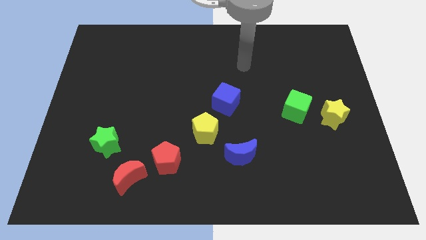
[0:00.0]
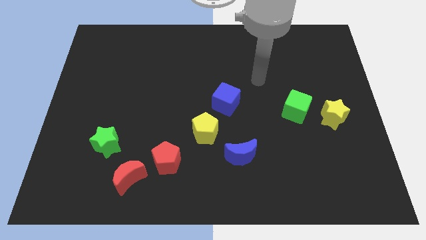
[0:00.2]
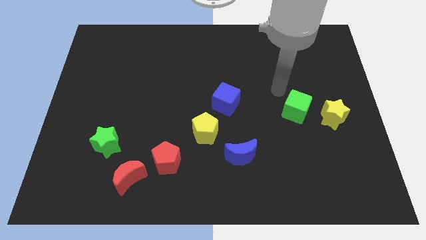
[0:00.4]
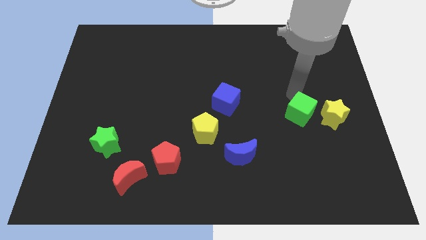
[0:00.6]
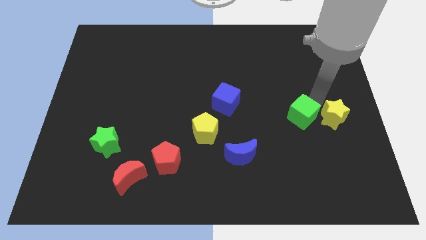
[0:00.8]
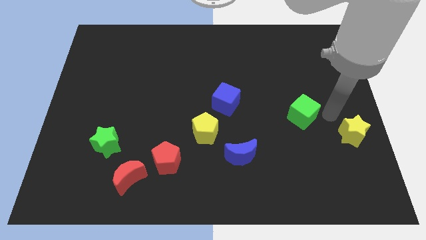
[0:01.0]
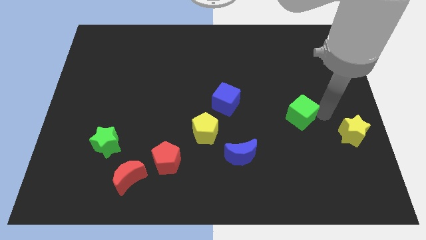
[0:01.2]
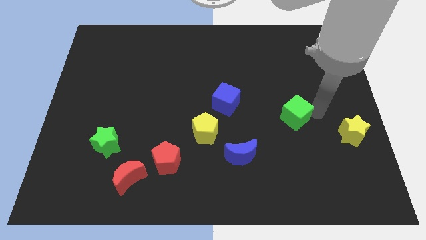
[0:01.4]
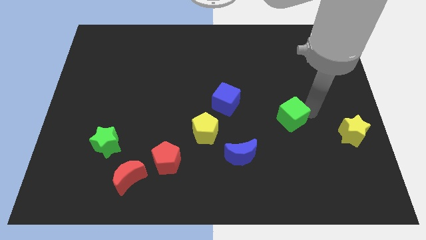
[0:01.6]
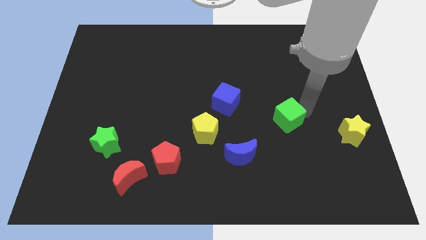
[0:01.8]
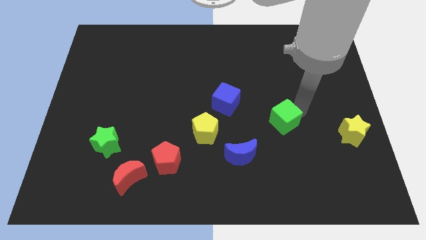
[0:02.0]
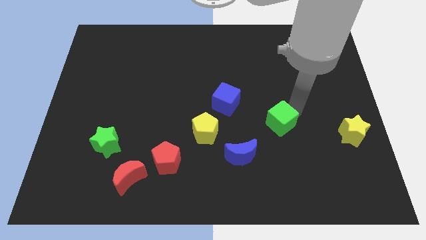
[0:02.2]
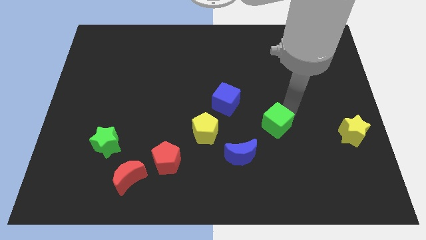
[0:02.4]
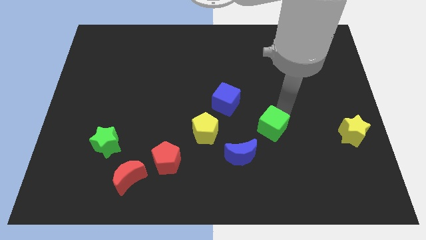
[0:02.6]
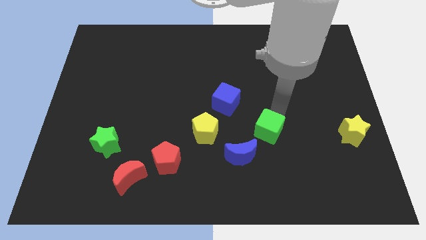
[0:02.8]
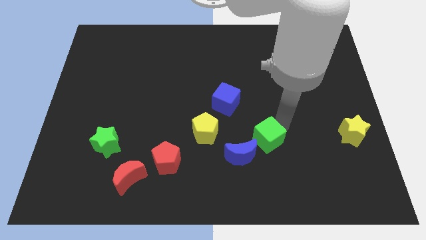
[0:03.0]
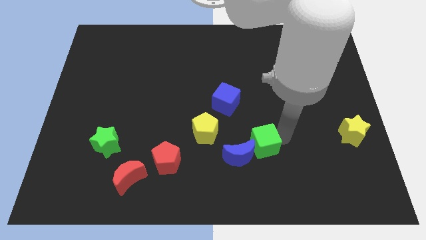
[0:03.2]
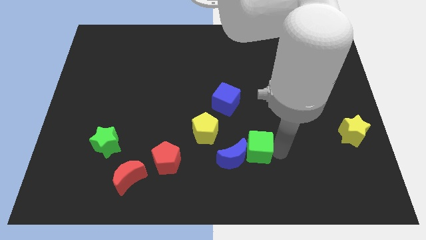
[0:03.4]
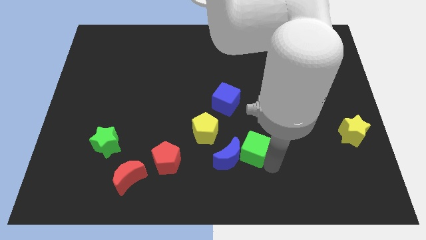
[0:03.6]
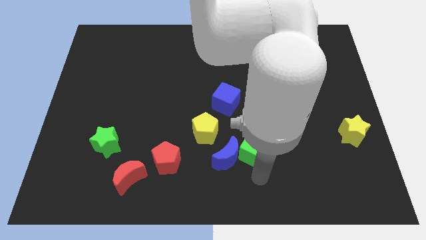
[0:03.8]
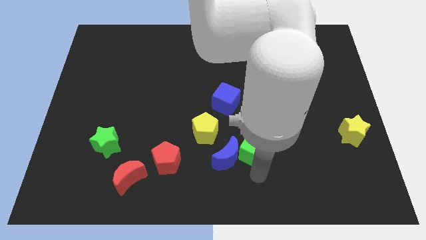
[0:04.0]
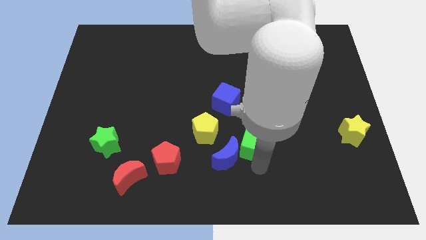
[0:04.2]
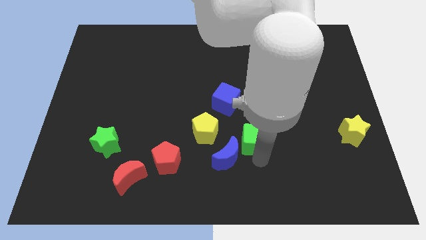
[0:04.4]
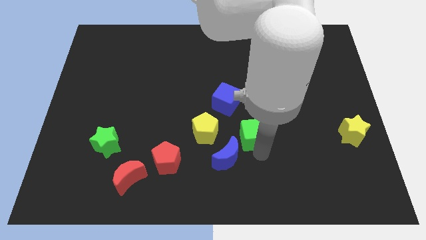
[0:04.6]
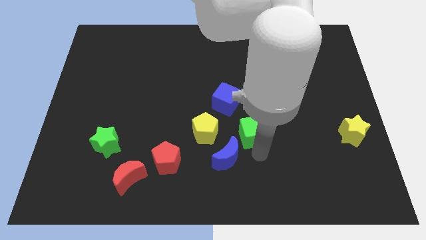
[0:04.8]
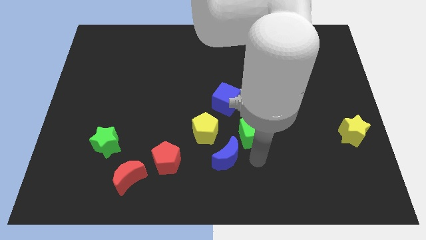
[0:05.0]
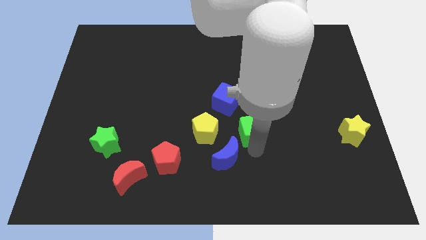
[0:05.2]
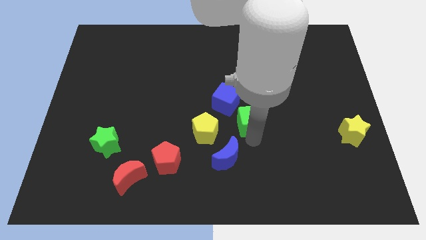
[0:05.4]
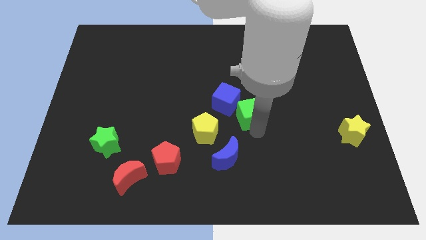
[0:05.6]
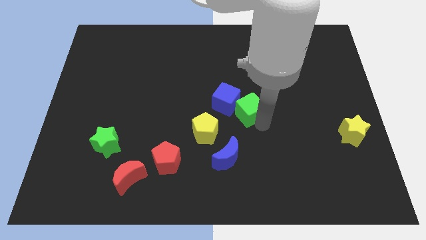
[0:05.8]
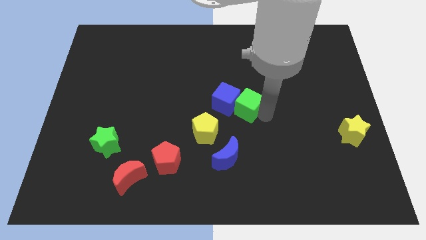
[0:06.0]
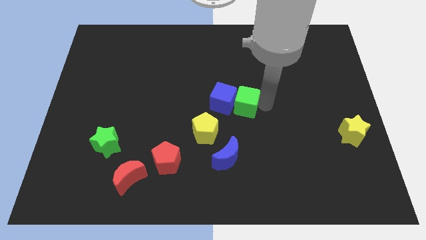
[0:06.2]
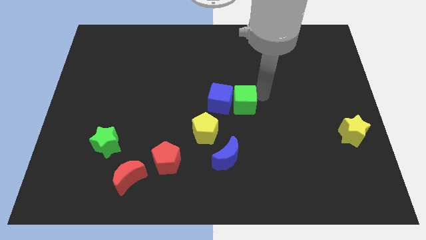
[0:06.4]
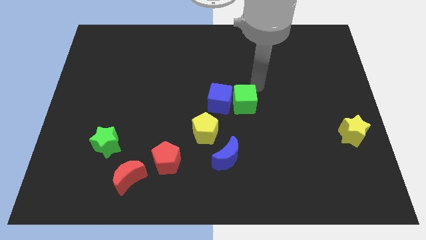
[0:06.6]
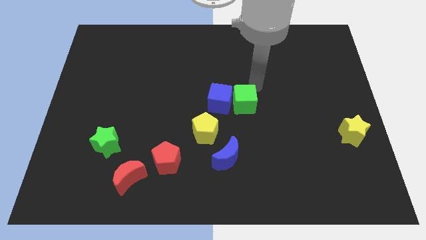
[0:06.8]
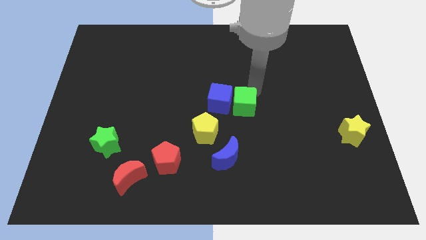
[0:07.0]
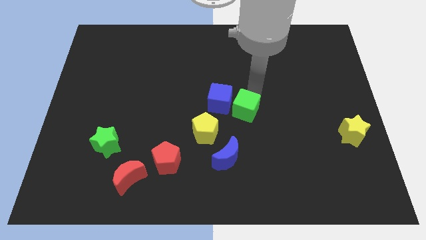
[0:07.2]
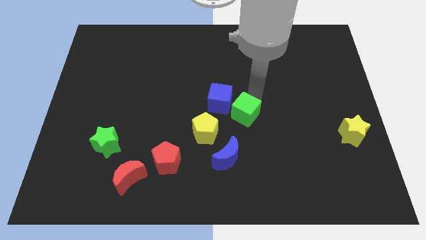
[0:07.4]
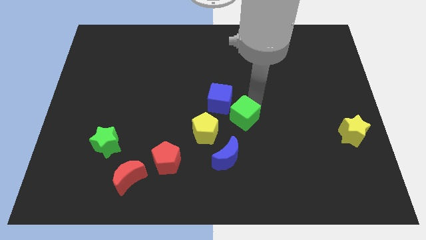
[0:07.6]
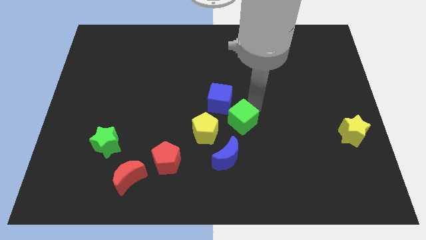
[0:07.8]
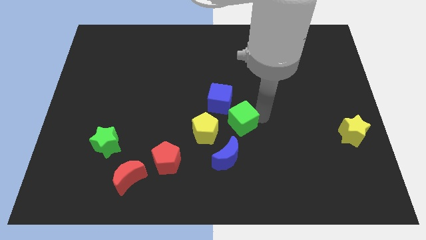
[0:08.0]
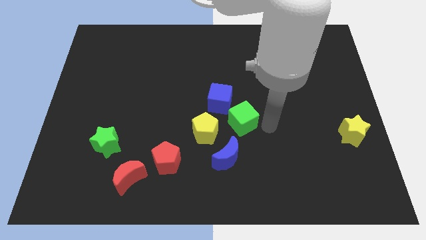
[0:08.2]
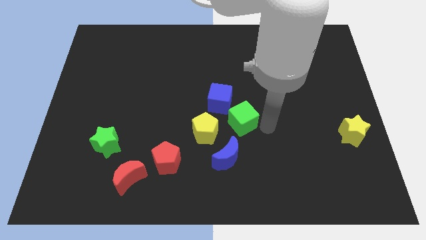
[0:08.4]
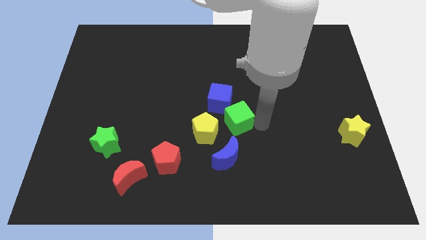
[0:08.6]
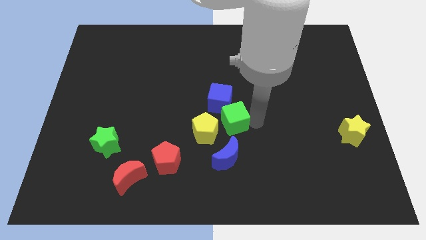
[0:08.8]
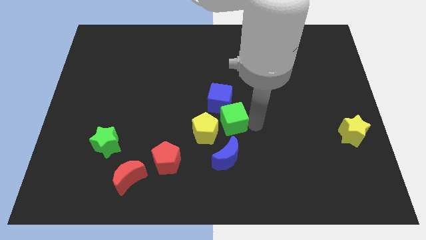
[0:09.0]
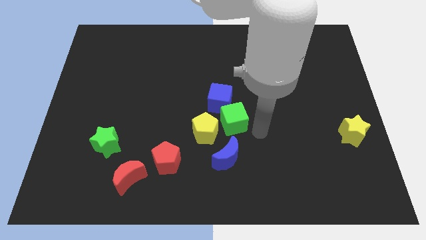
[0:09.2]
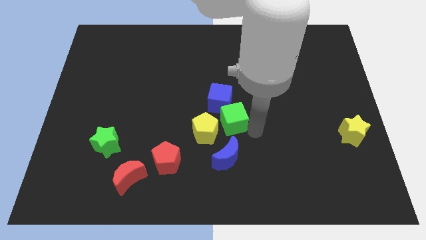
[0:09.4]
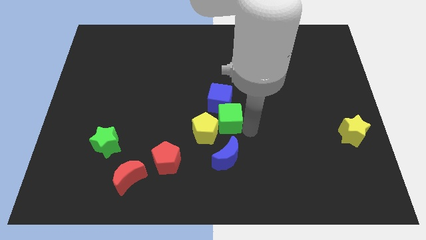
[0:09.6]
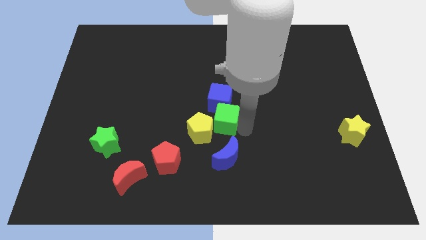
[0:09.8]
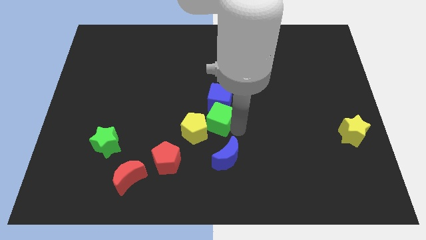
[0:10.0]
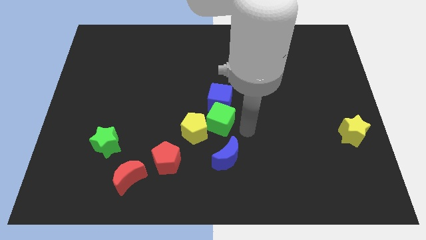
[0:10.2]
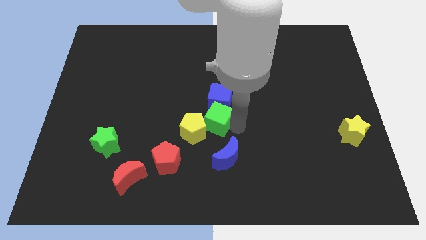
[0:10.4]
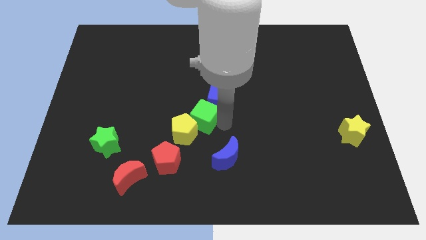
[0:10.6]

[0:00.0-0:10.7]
push the green cube left

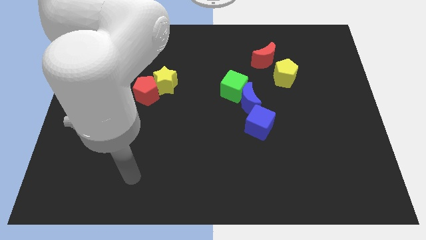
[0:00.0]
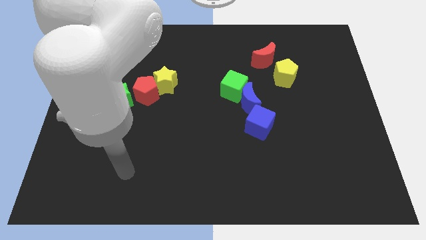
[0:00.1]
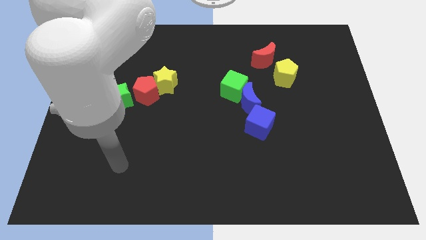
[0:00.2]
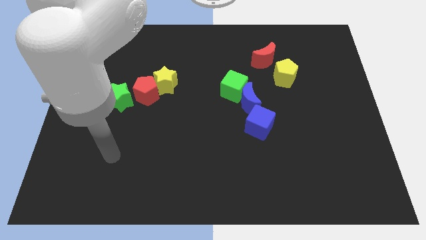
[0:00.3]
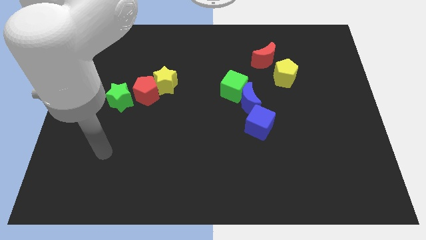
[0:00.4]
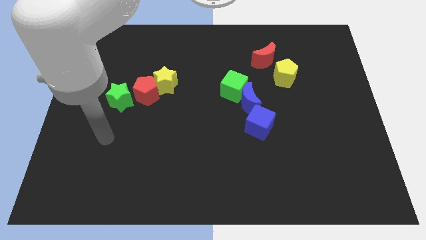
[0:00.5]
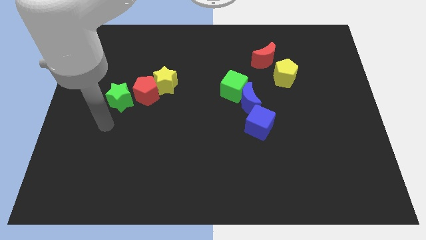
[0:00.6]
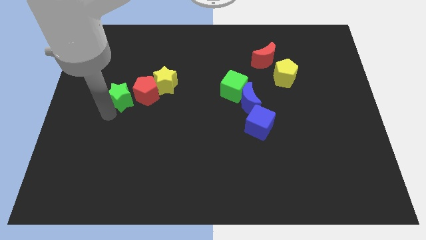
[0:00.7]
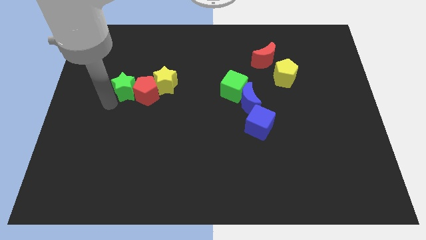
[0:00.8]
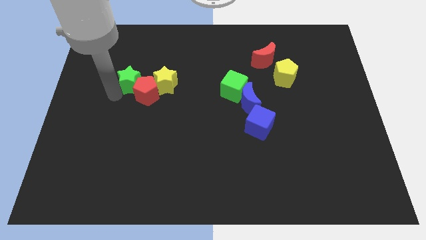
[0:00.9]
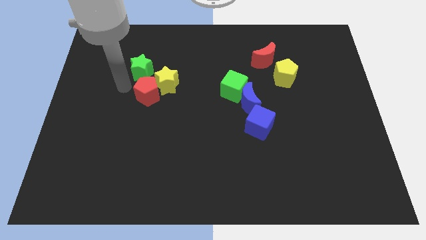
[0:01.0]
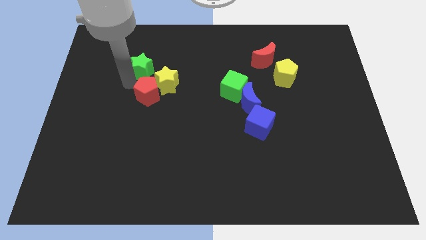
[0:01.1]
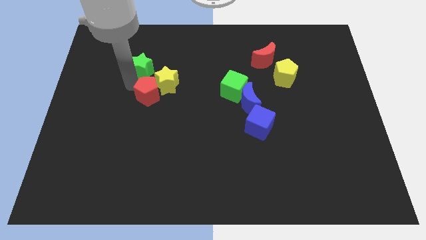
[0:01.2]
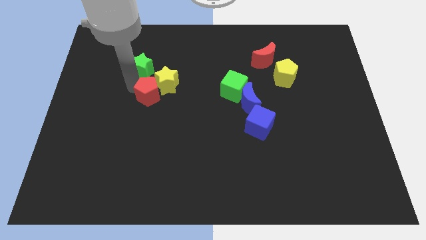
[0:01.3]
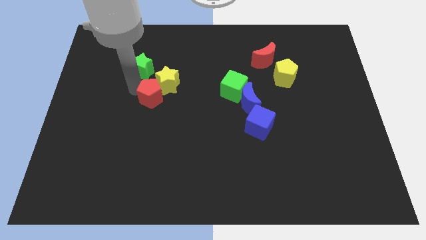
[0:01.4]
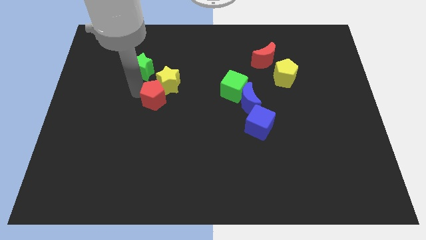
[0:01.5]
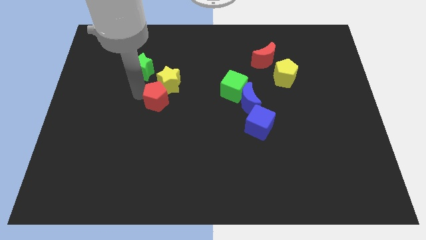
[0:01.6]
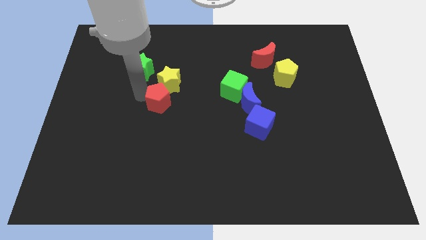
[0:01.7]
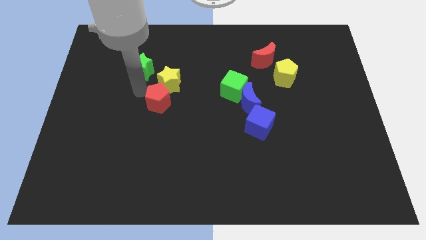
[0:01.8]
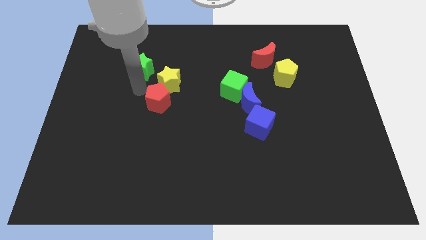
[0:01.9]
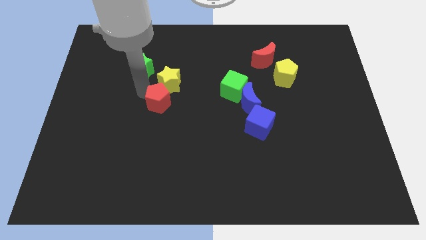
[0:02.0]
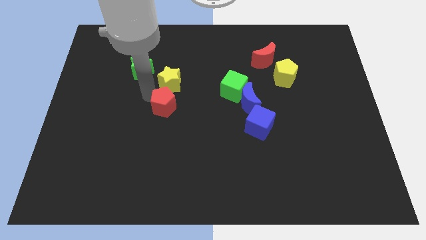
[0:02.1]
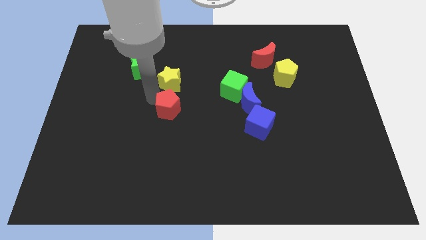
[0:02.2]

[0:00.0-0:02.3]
move the red pentagon a bit downwards and to the right diagonally
